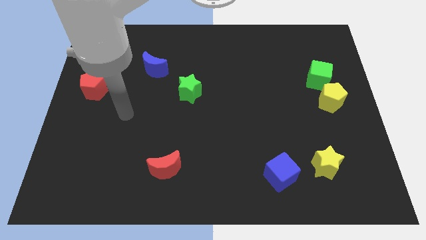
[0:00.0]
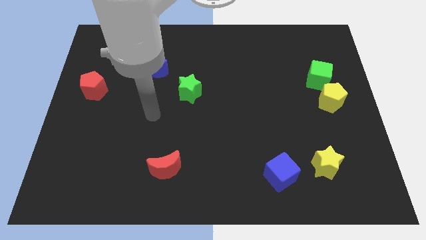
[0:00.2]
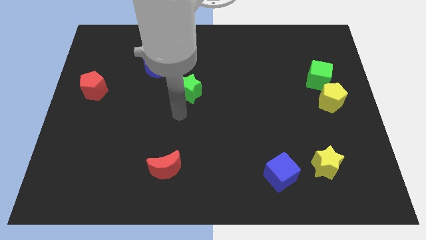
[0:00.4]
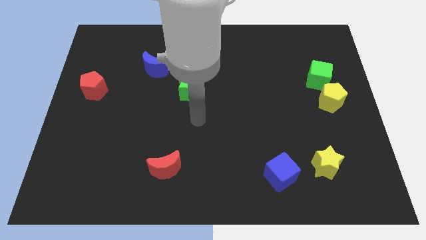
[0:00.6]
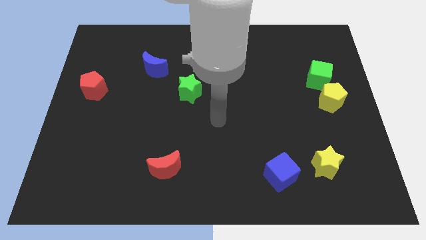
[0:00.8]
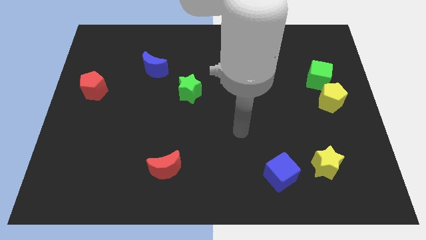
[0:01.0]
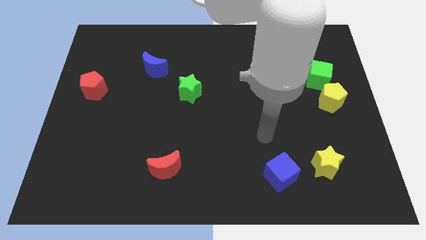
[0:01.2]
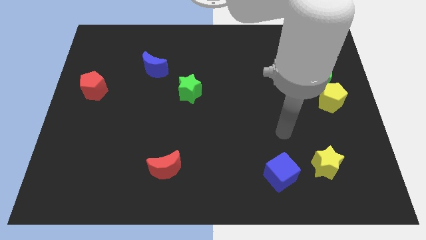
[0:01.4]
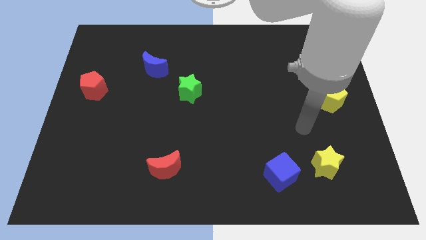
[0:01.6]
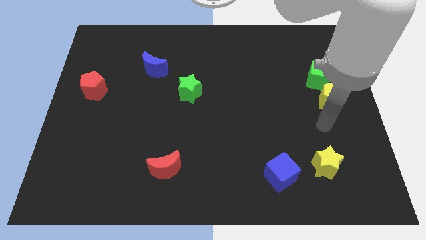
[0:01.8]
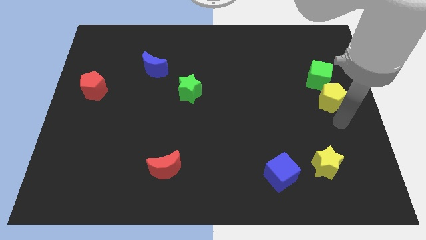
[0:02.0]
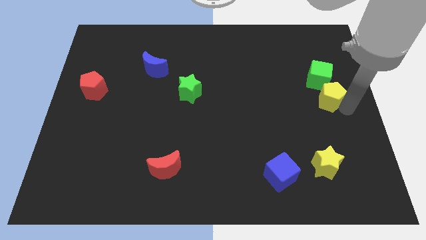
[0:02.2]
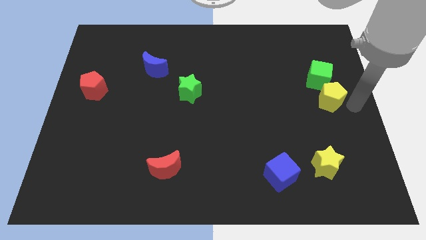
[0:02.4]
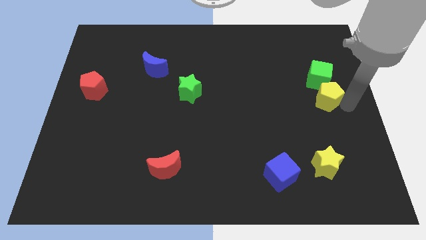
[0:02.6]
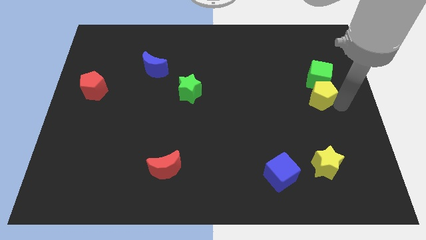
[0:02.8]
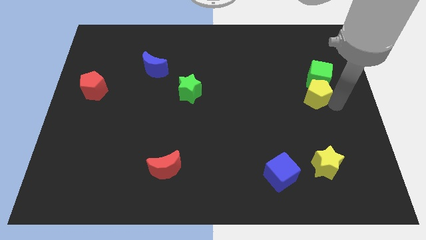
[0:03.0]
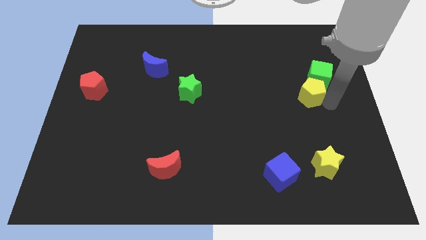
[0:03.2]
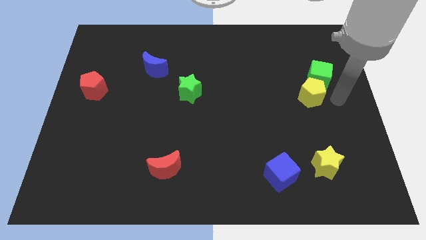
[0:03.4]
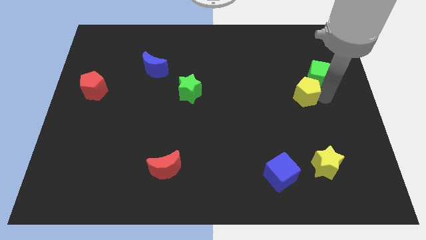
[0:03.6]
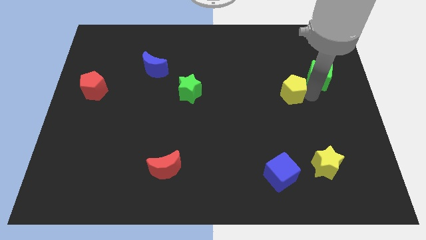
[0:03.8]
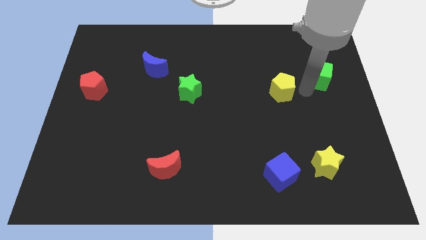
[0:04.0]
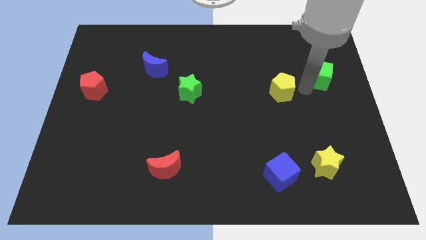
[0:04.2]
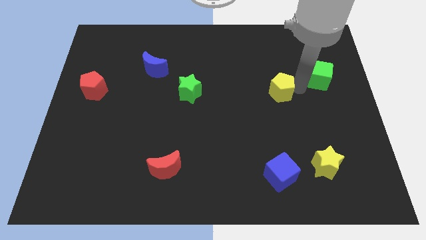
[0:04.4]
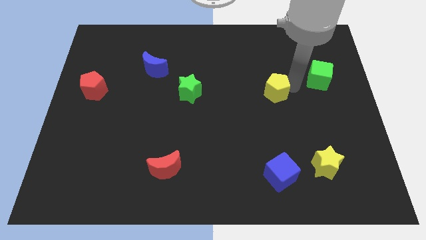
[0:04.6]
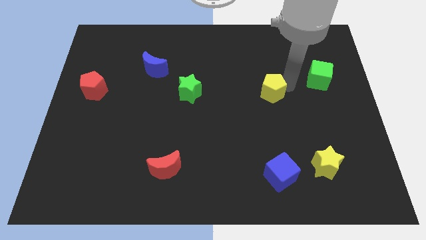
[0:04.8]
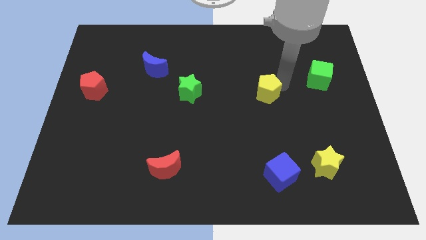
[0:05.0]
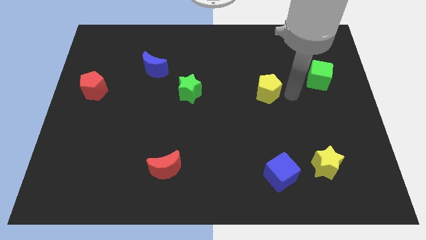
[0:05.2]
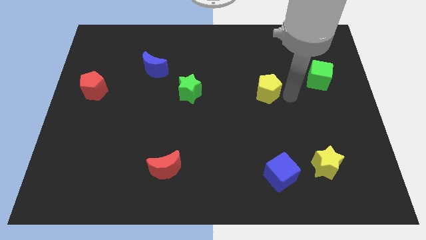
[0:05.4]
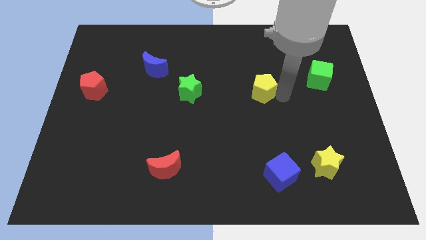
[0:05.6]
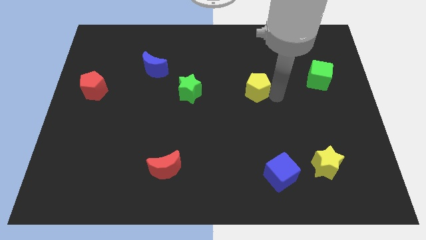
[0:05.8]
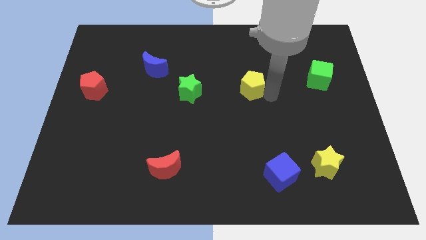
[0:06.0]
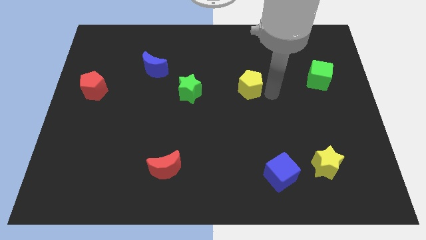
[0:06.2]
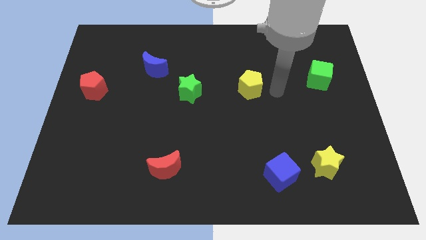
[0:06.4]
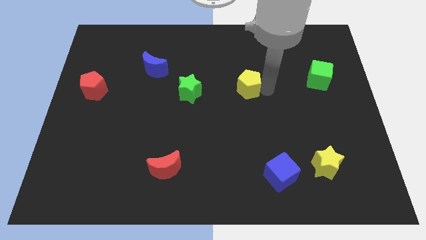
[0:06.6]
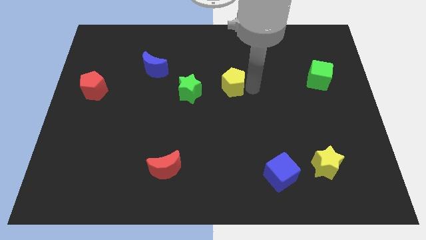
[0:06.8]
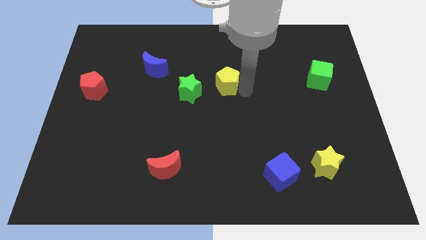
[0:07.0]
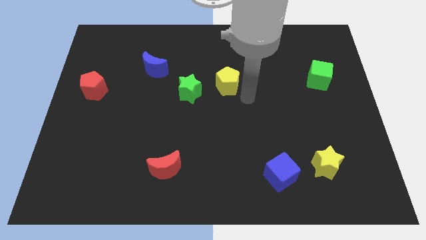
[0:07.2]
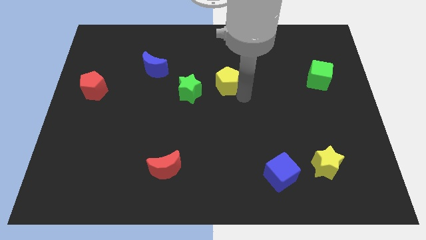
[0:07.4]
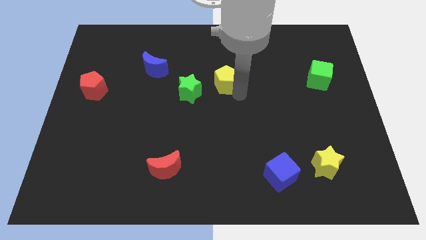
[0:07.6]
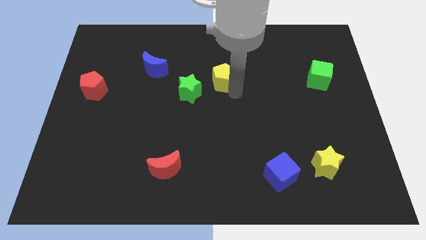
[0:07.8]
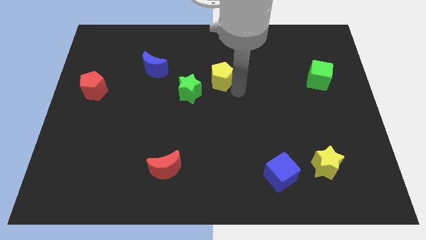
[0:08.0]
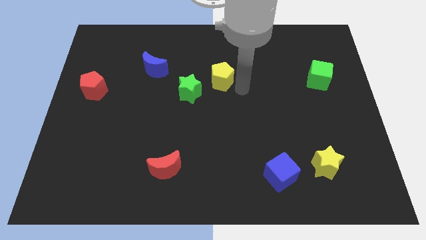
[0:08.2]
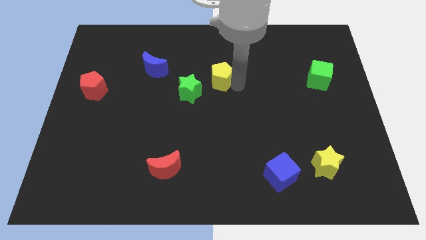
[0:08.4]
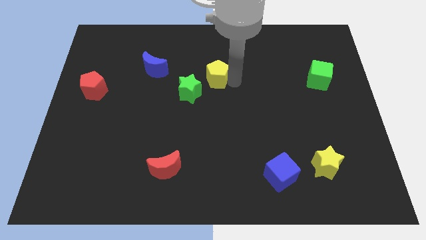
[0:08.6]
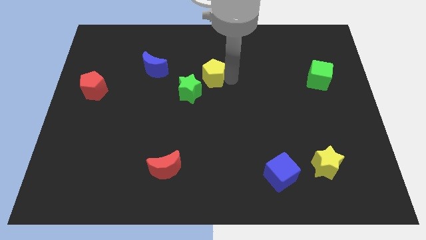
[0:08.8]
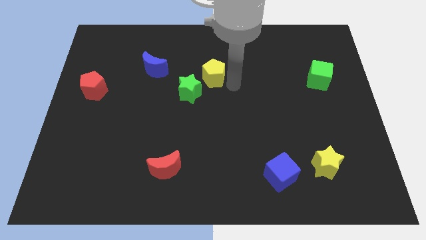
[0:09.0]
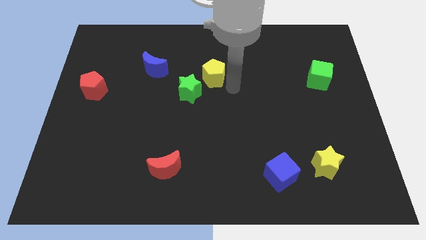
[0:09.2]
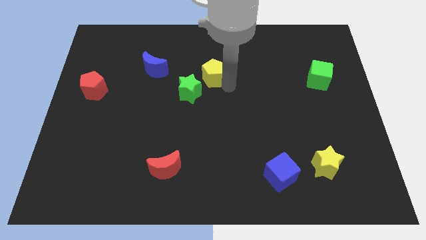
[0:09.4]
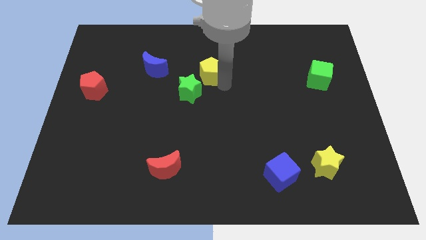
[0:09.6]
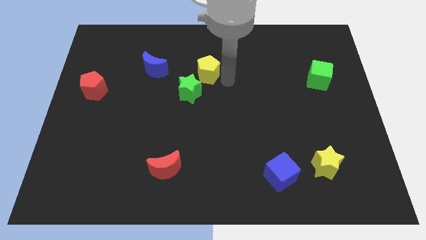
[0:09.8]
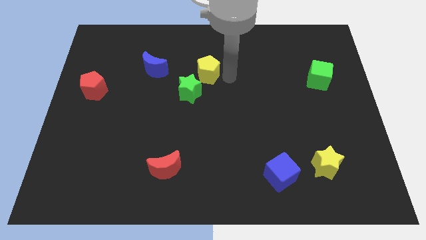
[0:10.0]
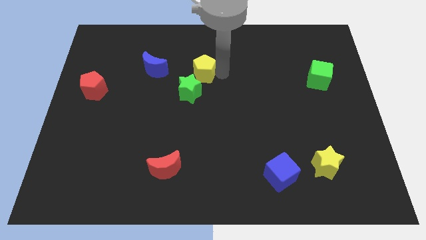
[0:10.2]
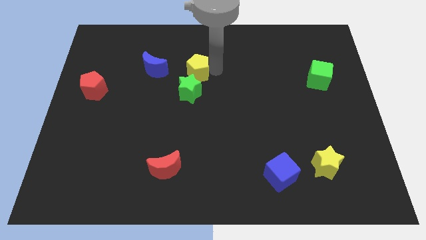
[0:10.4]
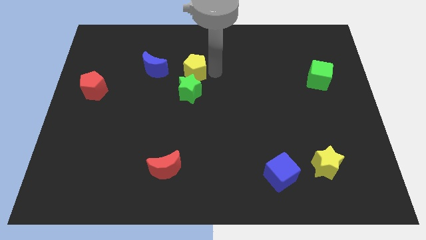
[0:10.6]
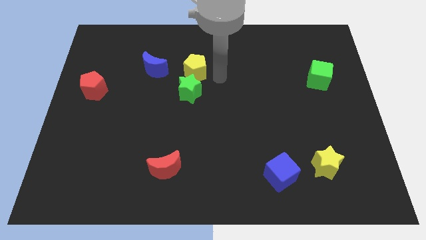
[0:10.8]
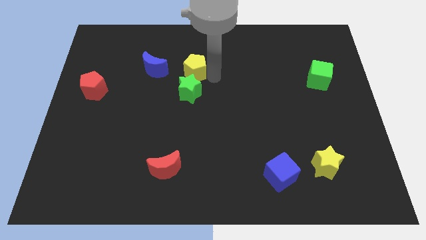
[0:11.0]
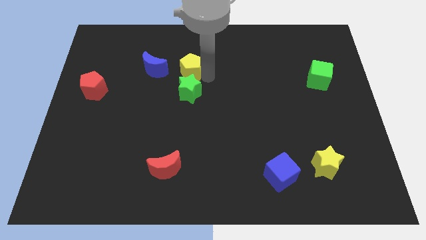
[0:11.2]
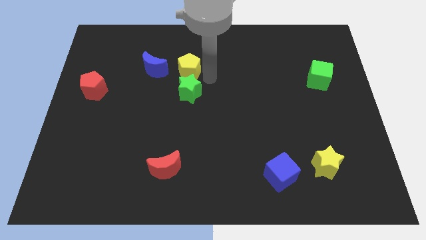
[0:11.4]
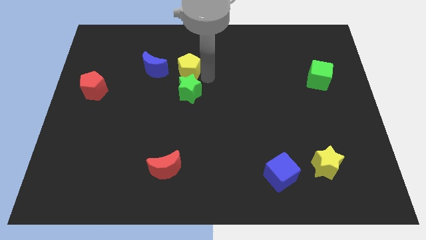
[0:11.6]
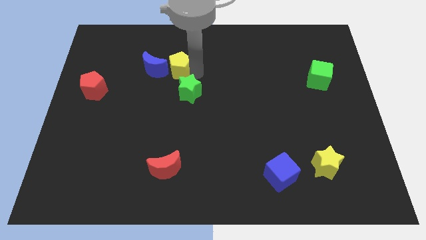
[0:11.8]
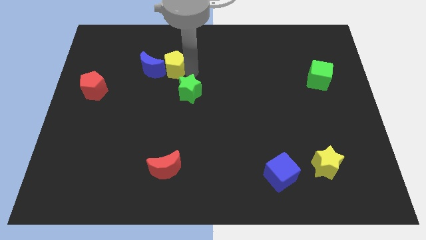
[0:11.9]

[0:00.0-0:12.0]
push the yellow pentagon next to the blue moon

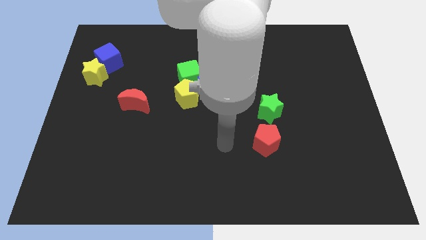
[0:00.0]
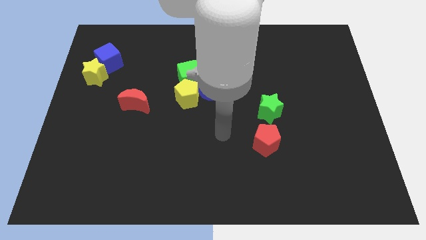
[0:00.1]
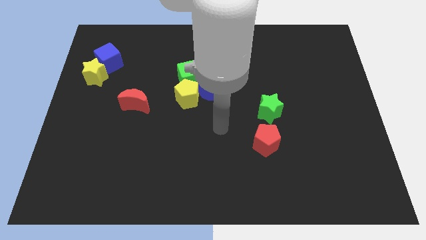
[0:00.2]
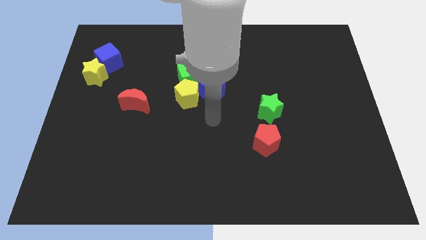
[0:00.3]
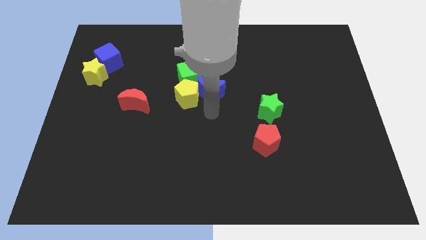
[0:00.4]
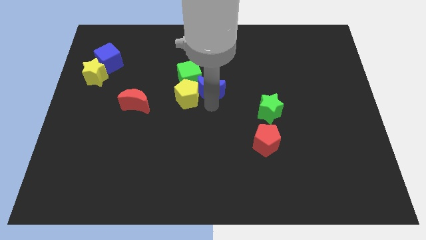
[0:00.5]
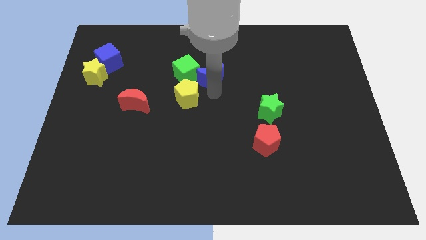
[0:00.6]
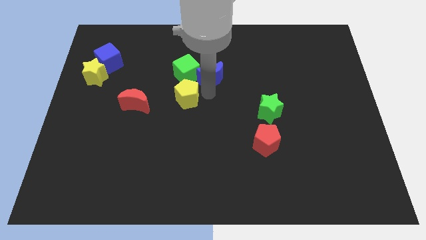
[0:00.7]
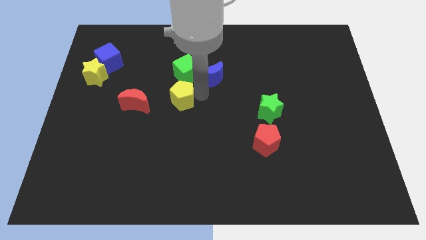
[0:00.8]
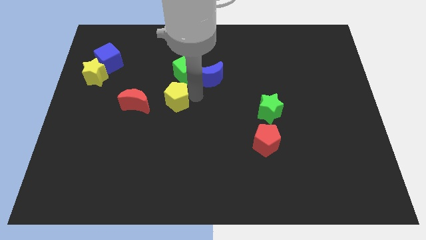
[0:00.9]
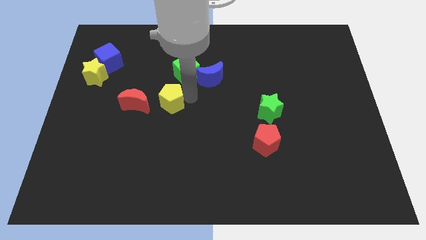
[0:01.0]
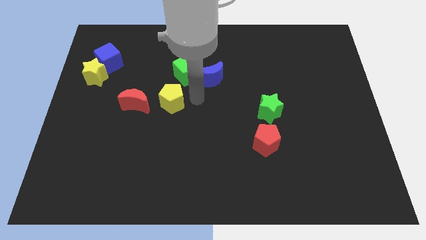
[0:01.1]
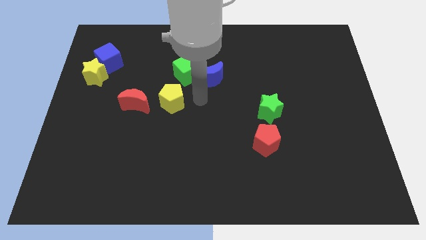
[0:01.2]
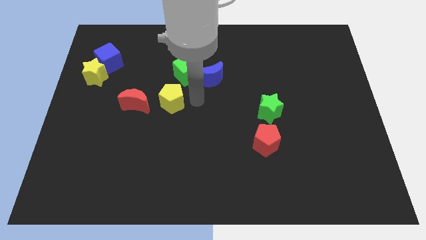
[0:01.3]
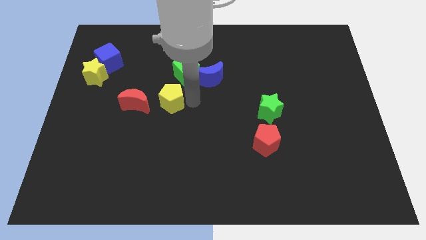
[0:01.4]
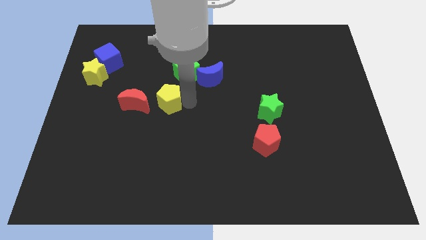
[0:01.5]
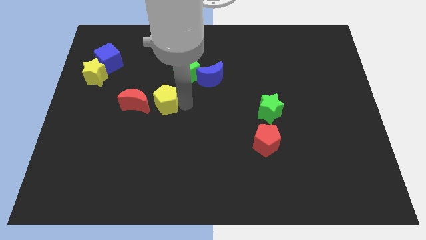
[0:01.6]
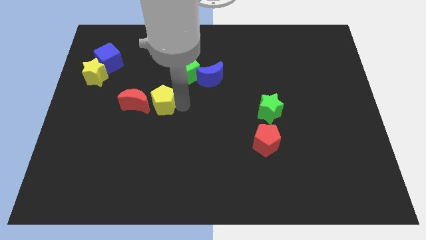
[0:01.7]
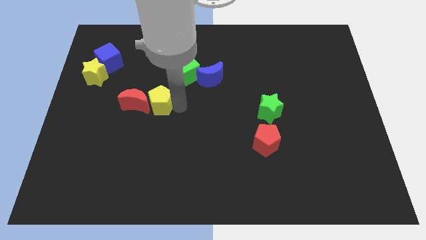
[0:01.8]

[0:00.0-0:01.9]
move the yellow pentagon close to the red moon
